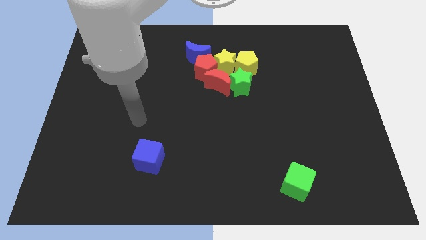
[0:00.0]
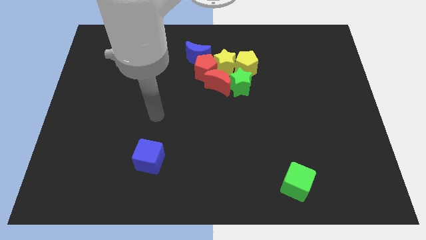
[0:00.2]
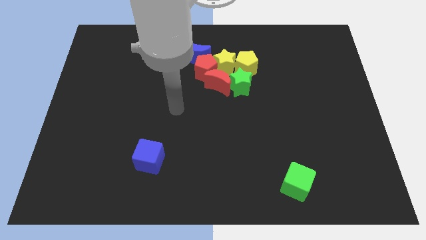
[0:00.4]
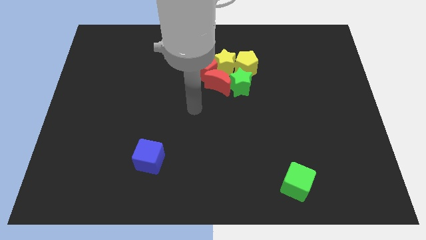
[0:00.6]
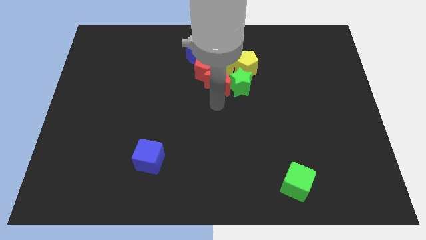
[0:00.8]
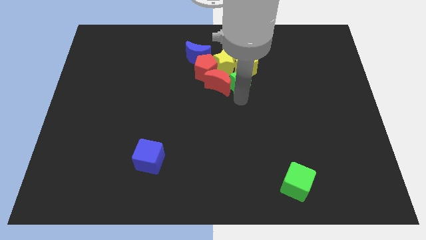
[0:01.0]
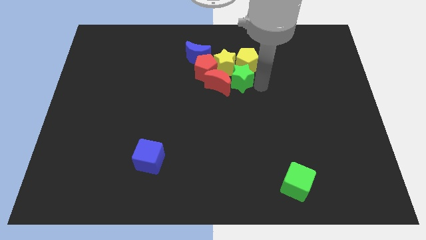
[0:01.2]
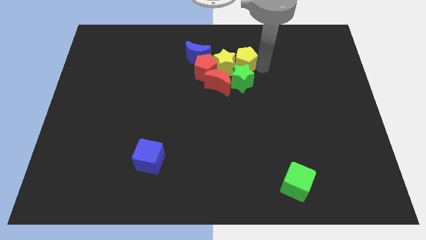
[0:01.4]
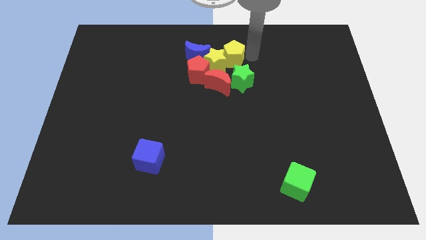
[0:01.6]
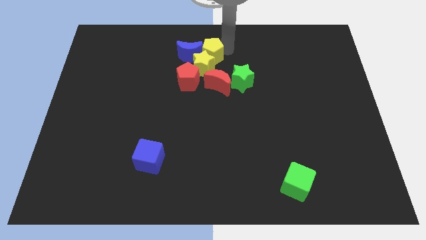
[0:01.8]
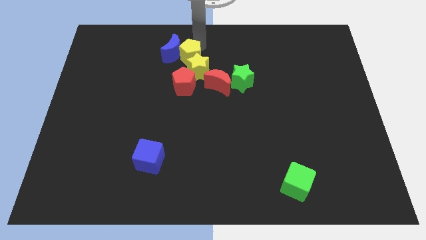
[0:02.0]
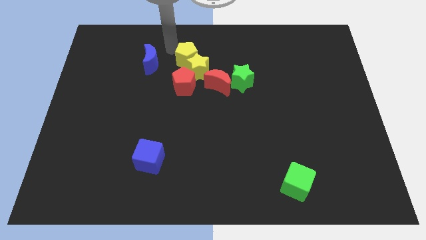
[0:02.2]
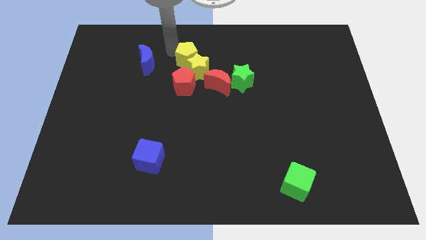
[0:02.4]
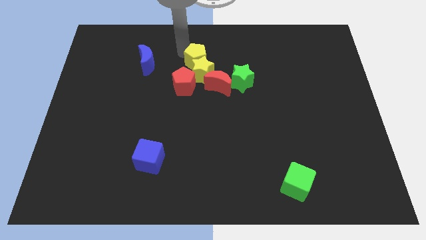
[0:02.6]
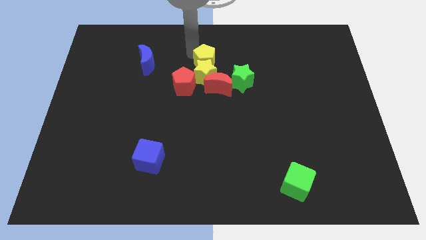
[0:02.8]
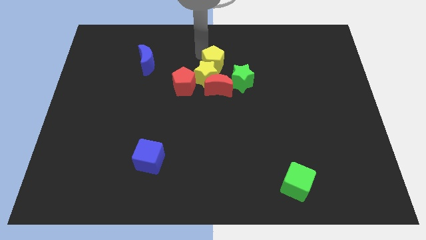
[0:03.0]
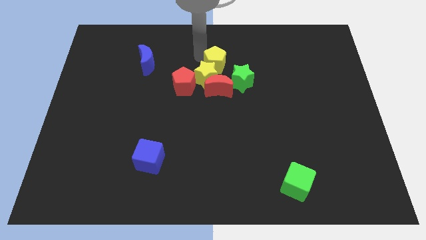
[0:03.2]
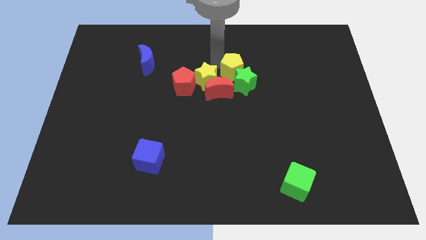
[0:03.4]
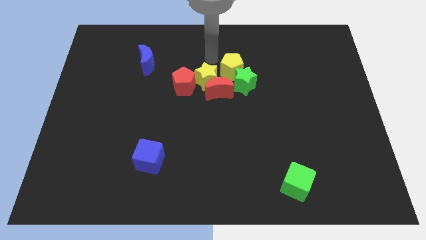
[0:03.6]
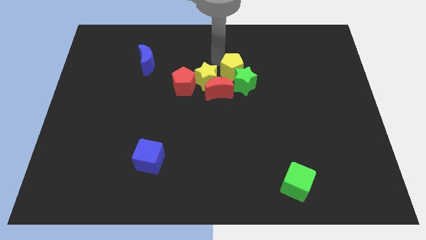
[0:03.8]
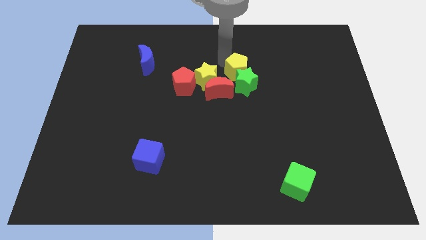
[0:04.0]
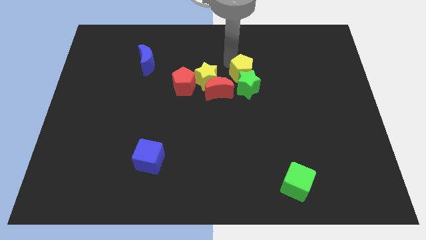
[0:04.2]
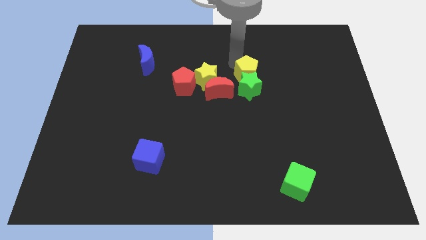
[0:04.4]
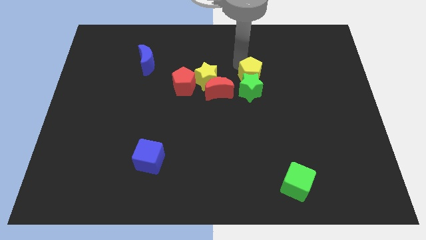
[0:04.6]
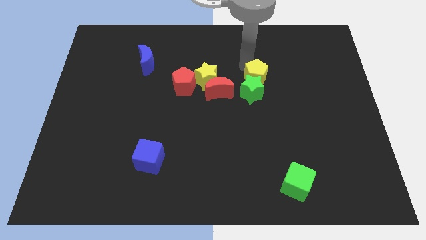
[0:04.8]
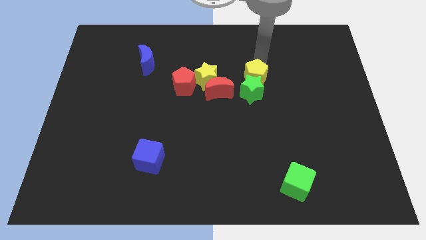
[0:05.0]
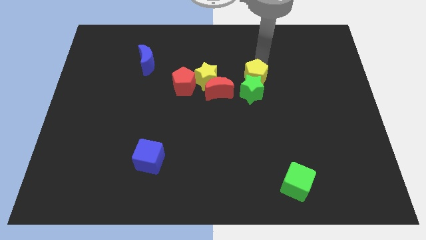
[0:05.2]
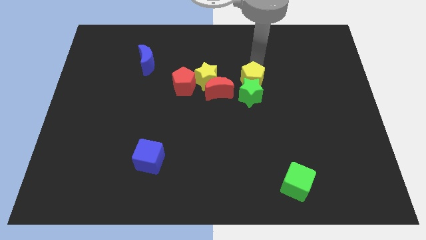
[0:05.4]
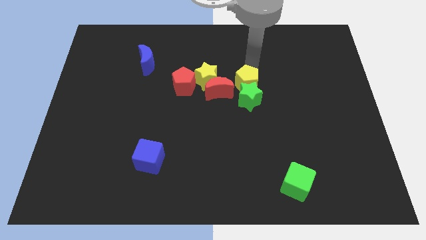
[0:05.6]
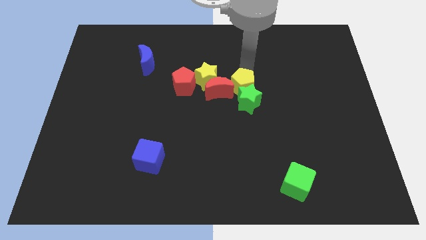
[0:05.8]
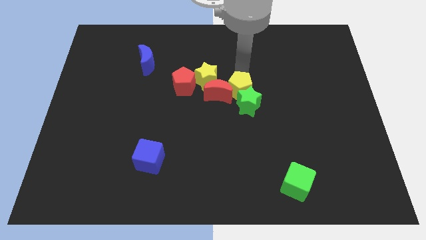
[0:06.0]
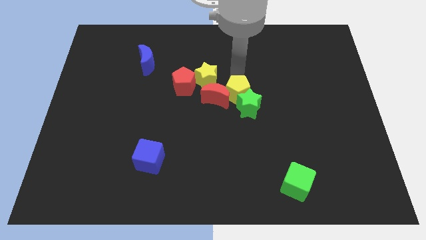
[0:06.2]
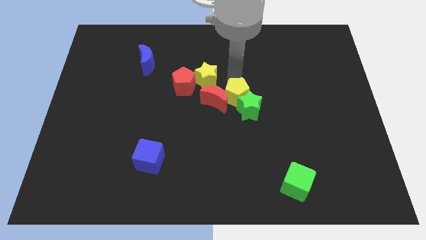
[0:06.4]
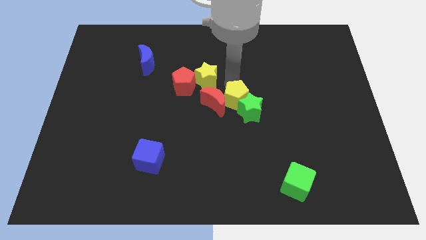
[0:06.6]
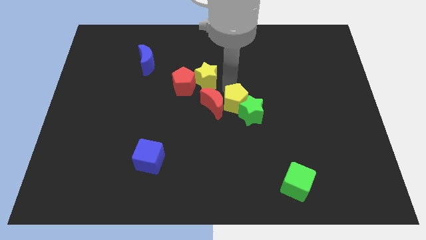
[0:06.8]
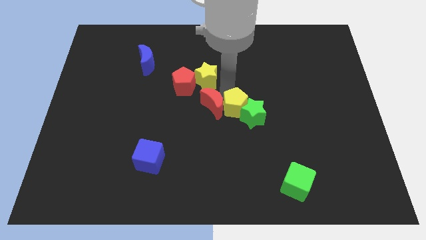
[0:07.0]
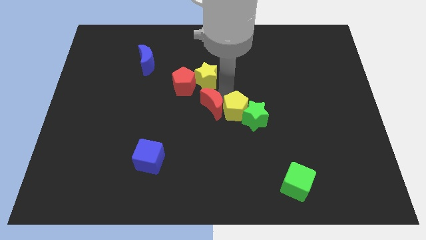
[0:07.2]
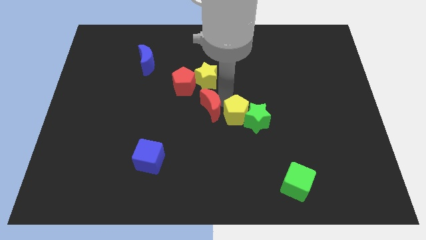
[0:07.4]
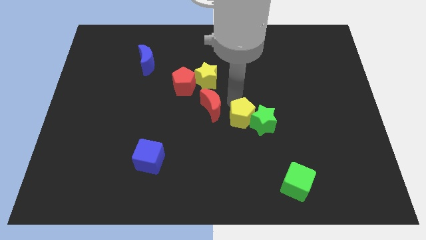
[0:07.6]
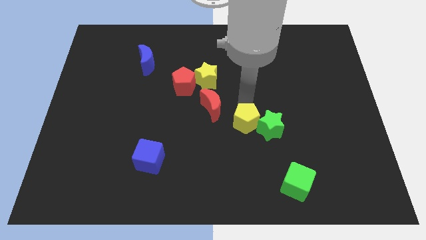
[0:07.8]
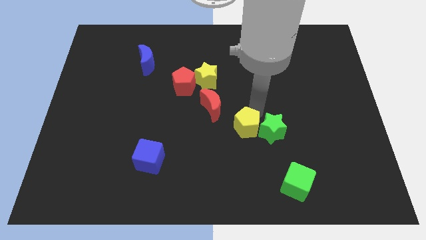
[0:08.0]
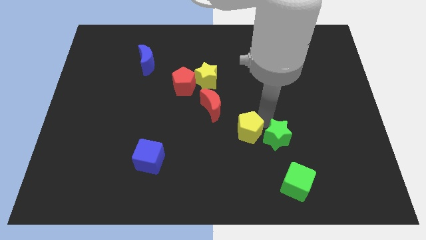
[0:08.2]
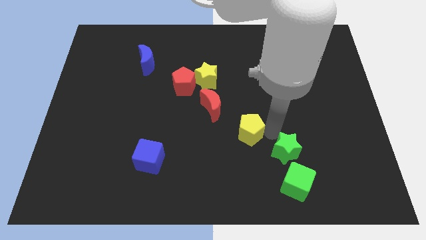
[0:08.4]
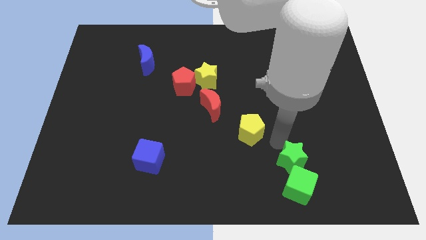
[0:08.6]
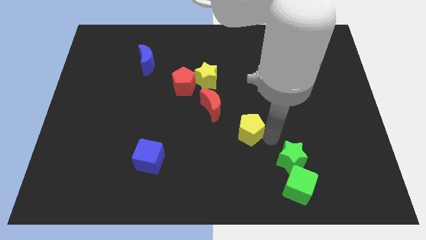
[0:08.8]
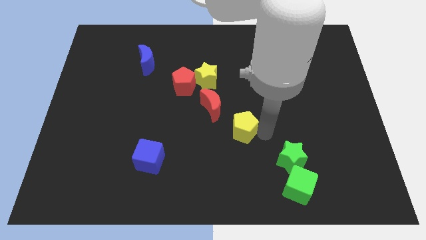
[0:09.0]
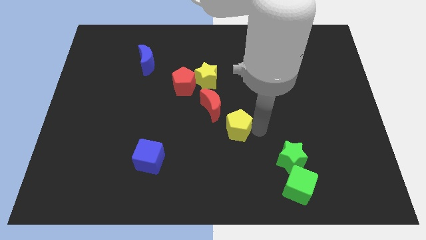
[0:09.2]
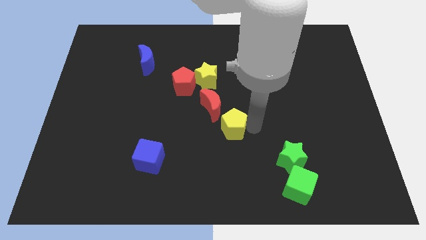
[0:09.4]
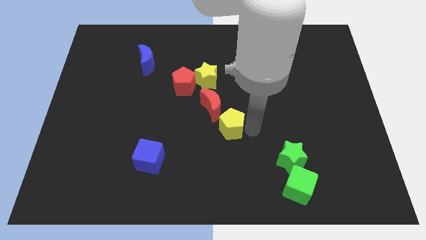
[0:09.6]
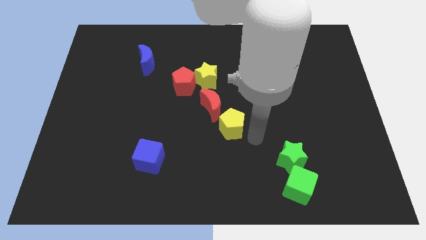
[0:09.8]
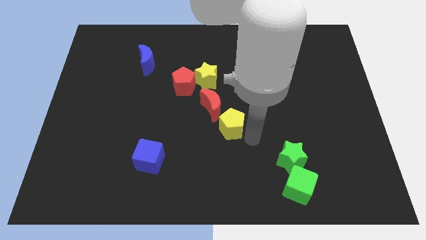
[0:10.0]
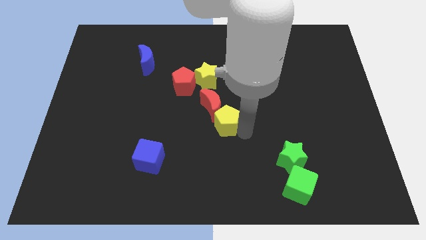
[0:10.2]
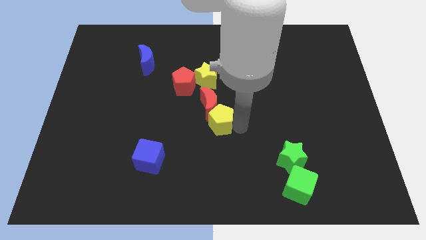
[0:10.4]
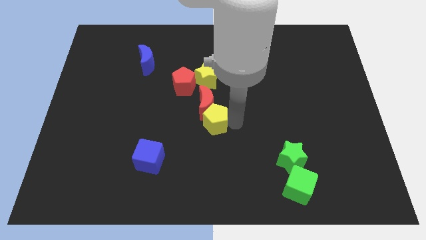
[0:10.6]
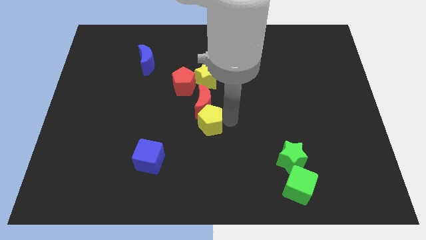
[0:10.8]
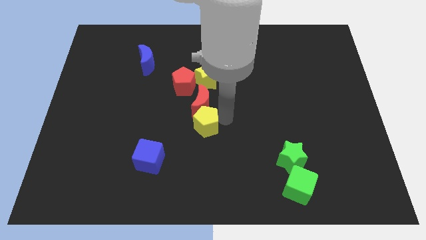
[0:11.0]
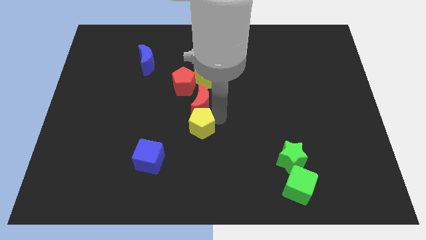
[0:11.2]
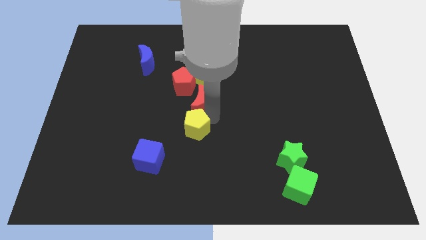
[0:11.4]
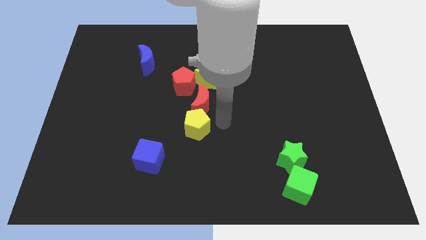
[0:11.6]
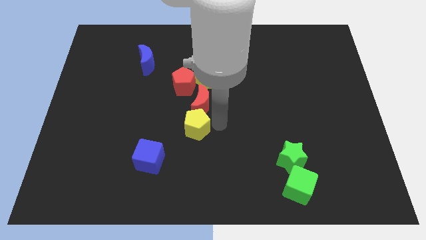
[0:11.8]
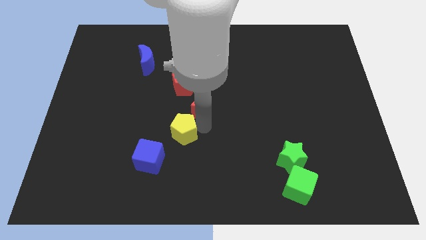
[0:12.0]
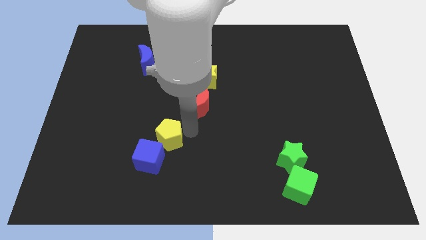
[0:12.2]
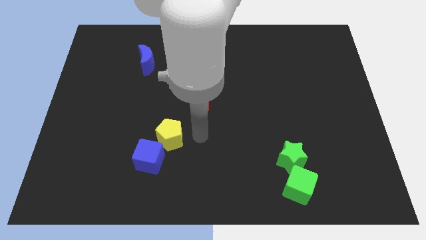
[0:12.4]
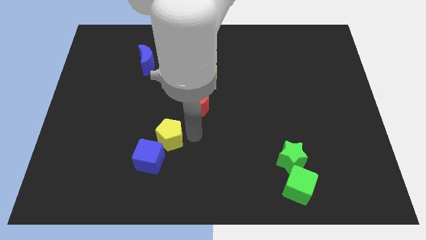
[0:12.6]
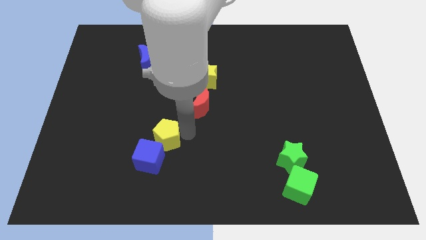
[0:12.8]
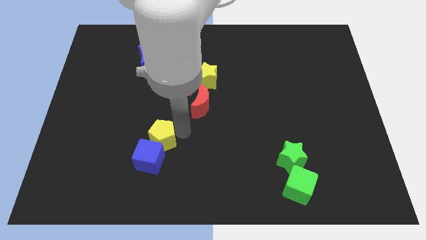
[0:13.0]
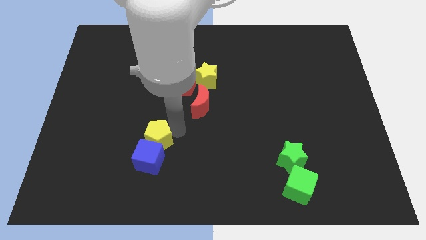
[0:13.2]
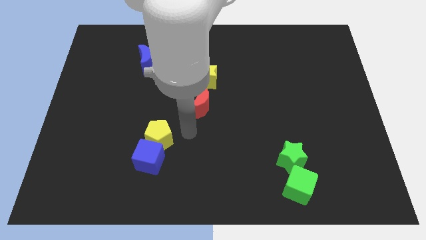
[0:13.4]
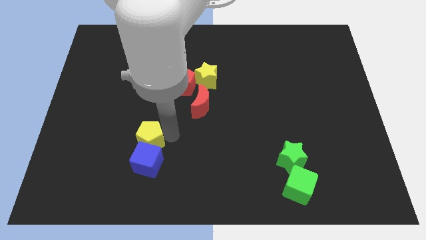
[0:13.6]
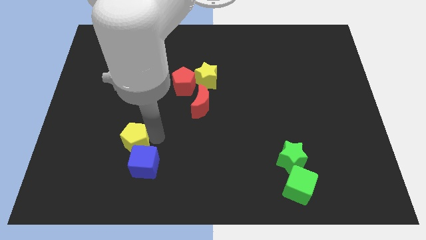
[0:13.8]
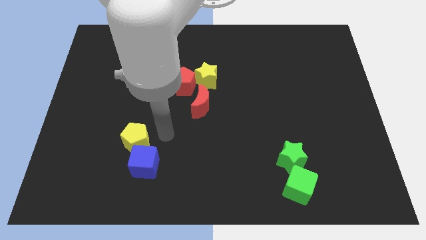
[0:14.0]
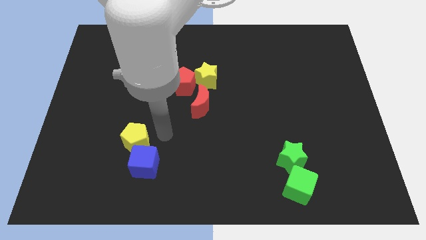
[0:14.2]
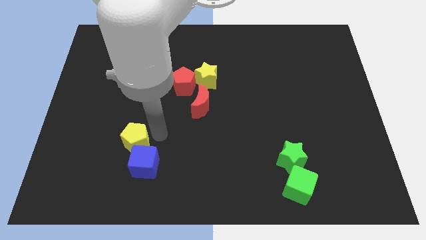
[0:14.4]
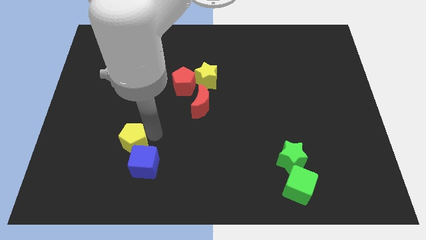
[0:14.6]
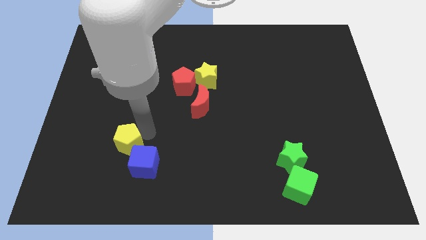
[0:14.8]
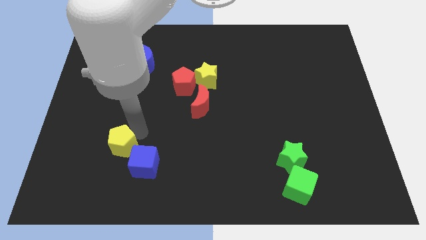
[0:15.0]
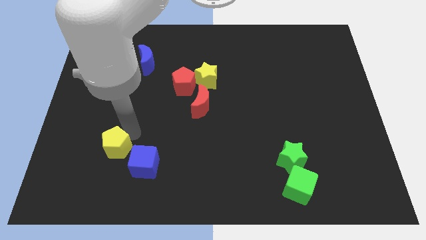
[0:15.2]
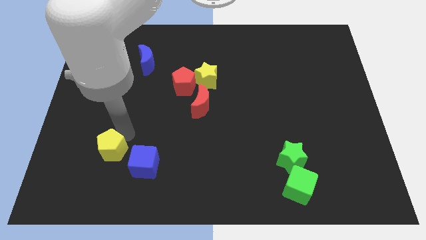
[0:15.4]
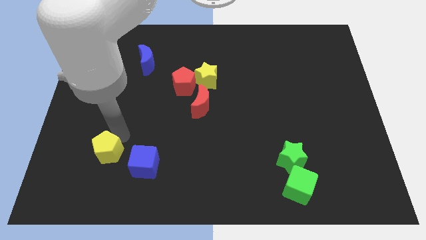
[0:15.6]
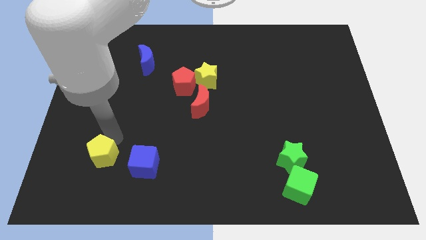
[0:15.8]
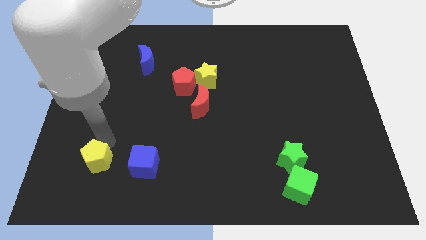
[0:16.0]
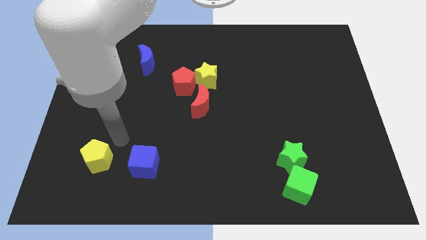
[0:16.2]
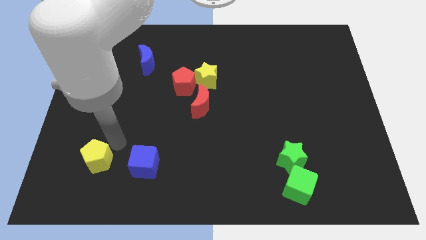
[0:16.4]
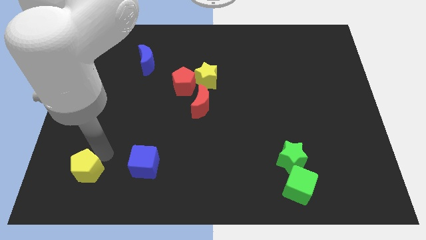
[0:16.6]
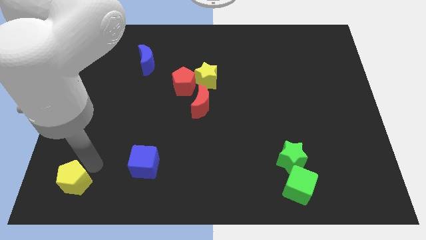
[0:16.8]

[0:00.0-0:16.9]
slide the yellow pentagon to the bottom left
